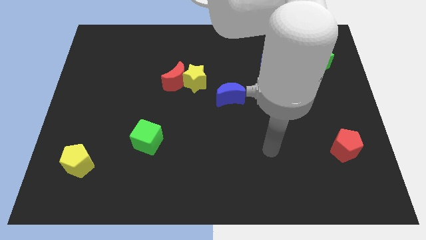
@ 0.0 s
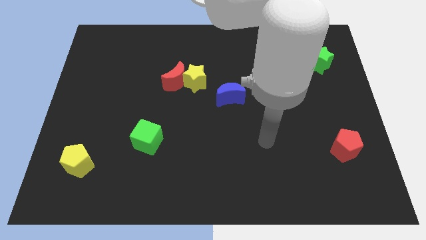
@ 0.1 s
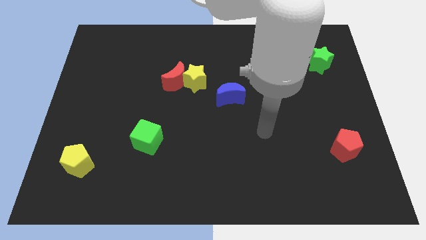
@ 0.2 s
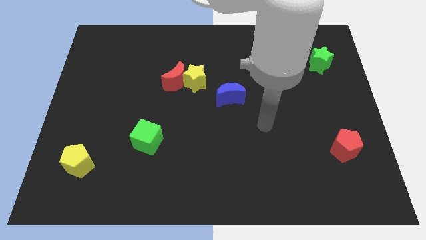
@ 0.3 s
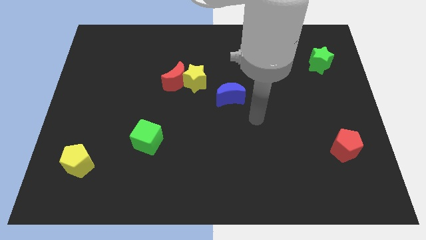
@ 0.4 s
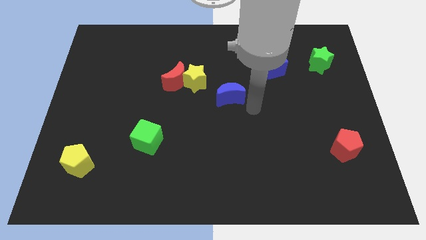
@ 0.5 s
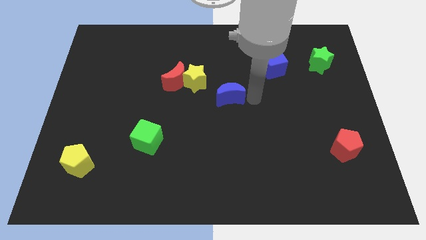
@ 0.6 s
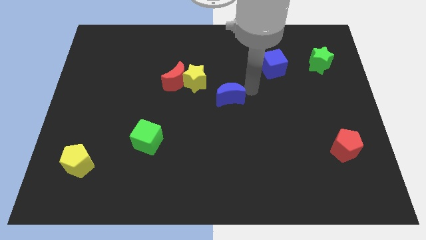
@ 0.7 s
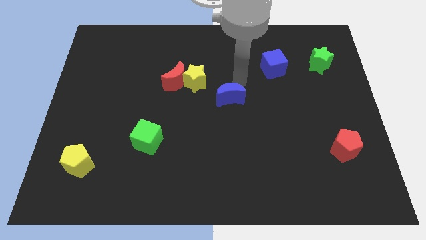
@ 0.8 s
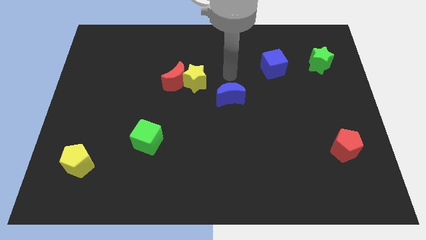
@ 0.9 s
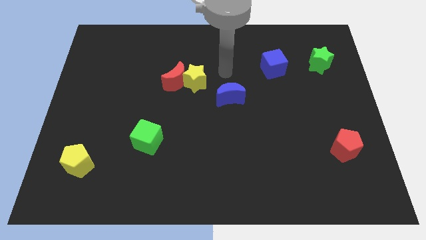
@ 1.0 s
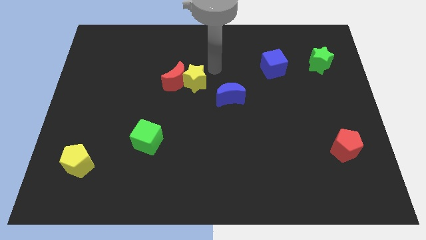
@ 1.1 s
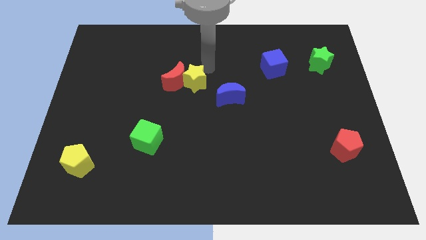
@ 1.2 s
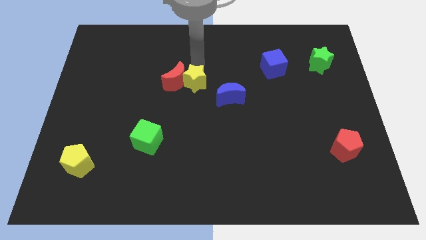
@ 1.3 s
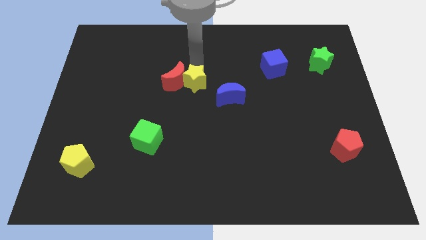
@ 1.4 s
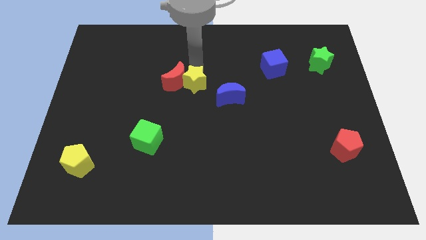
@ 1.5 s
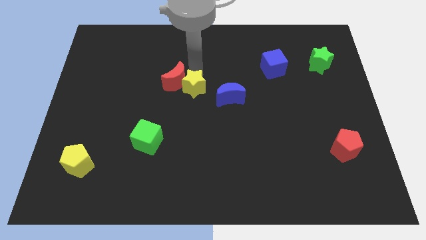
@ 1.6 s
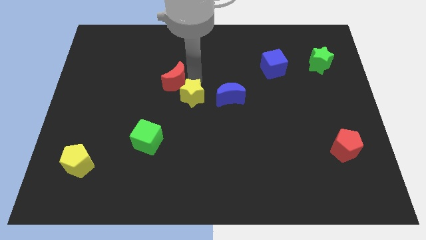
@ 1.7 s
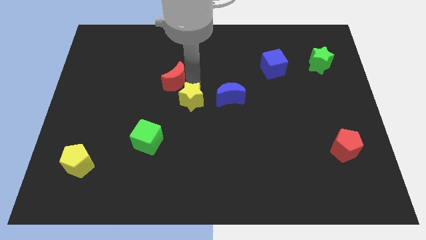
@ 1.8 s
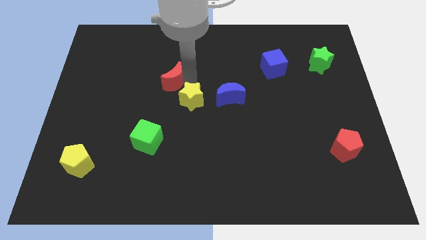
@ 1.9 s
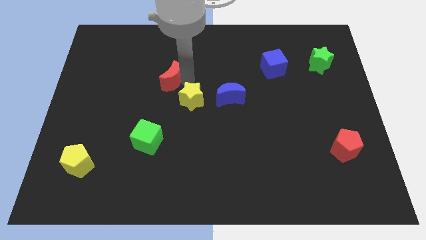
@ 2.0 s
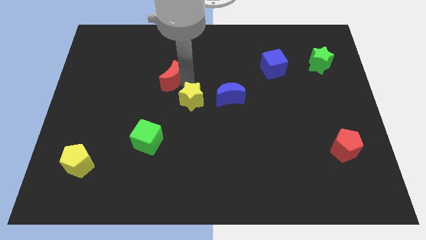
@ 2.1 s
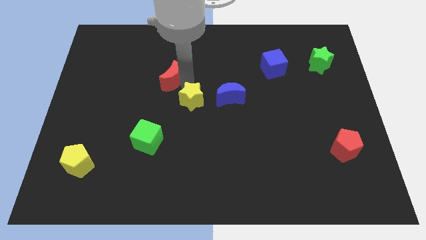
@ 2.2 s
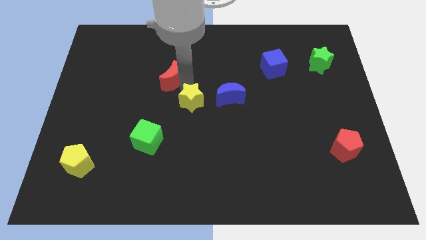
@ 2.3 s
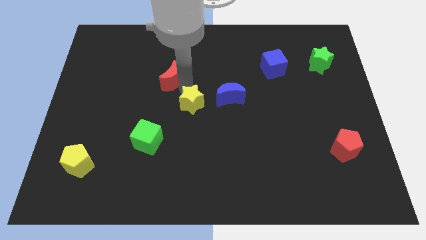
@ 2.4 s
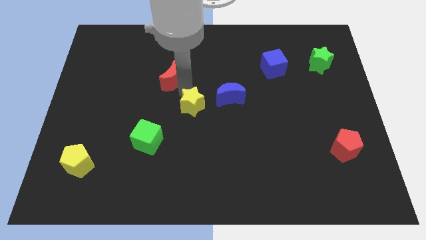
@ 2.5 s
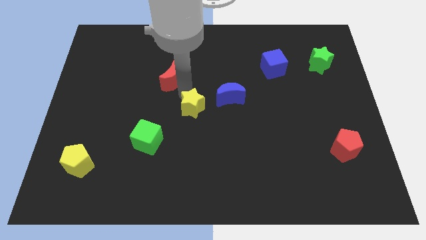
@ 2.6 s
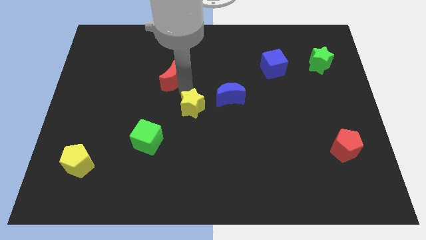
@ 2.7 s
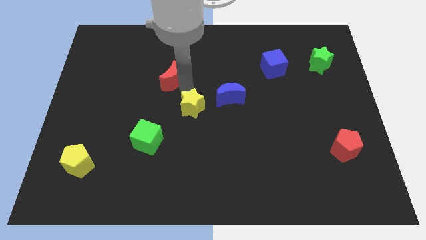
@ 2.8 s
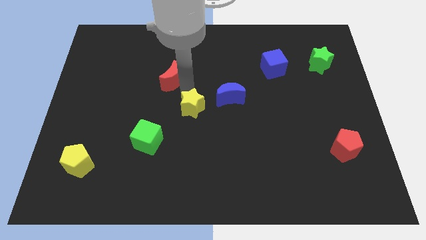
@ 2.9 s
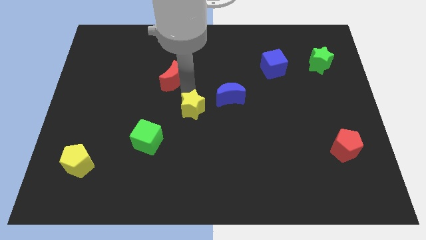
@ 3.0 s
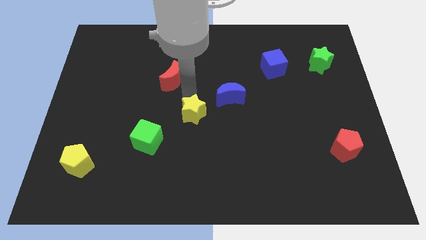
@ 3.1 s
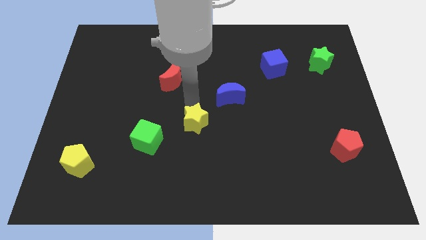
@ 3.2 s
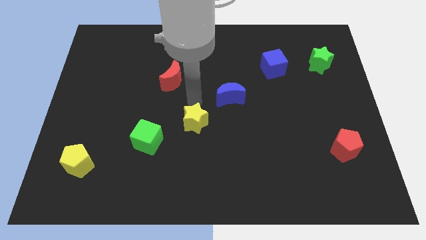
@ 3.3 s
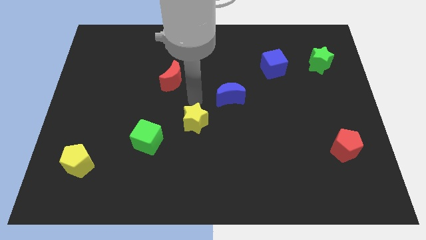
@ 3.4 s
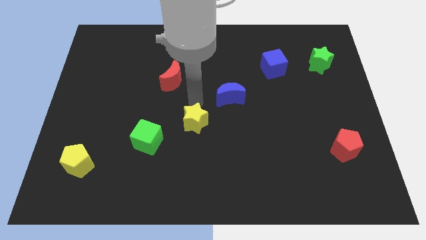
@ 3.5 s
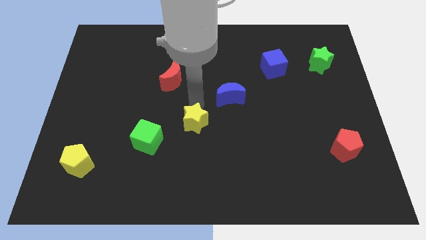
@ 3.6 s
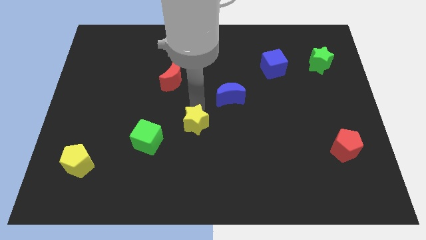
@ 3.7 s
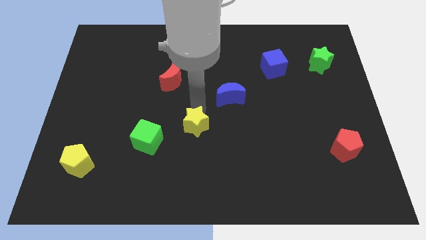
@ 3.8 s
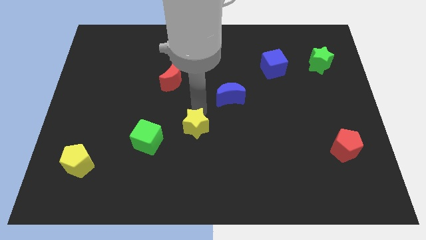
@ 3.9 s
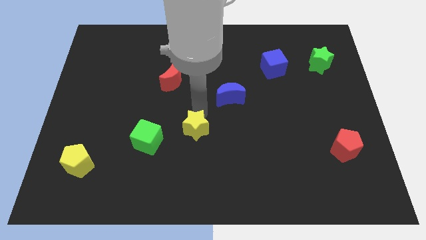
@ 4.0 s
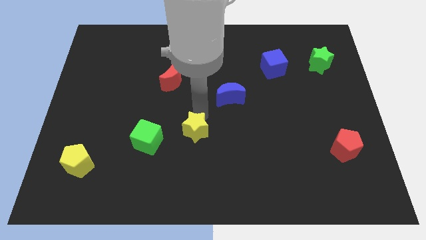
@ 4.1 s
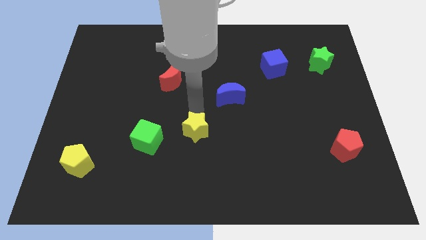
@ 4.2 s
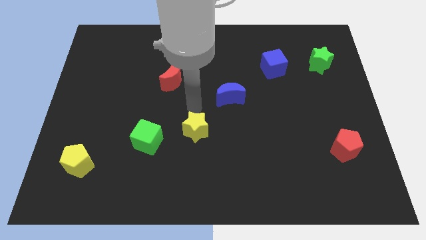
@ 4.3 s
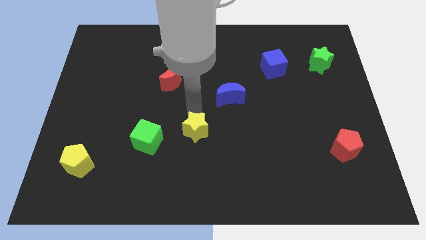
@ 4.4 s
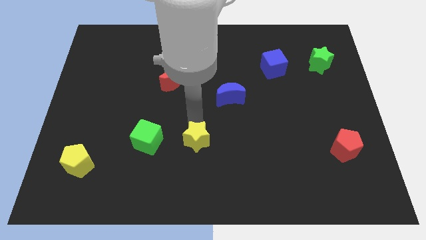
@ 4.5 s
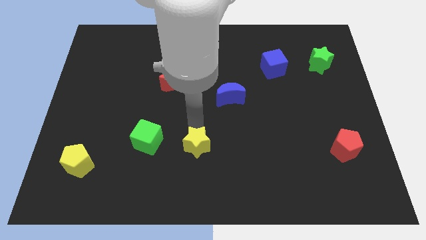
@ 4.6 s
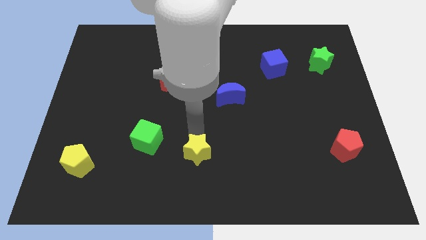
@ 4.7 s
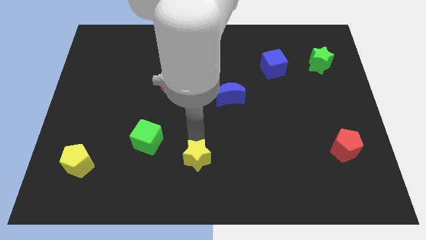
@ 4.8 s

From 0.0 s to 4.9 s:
push the yellow star to the bottom side

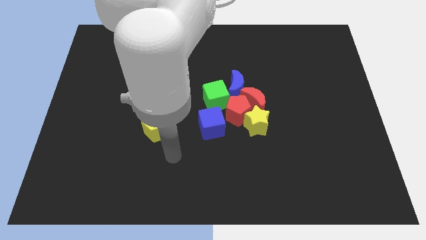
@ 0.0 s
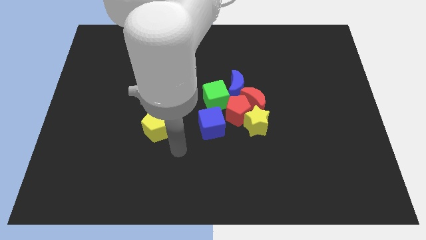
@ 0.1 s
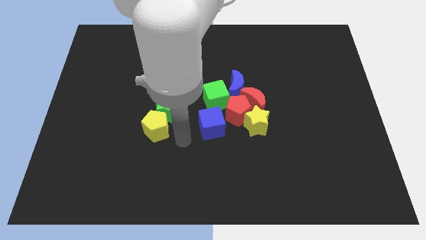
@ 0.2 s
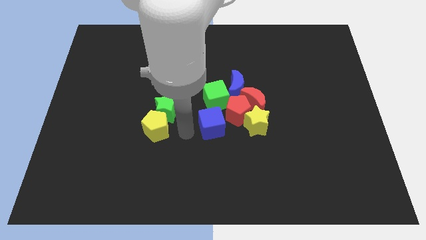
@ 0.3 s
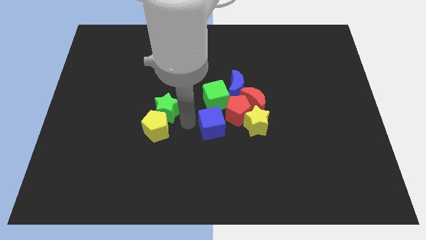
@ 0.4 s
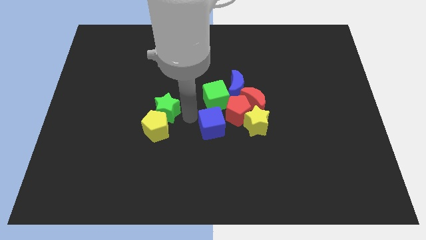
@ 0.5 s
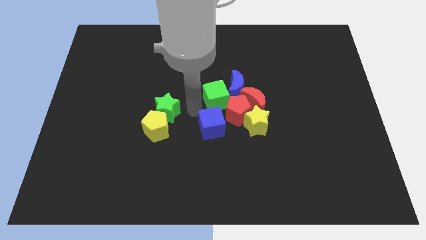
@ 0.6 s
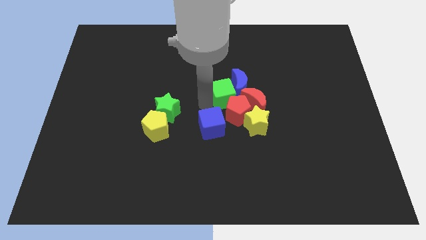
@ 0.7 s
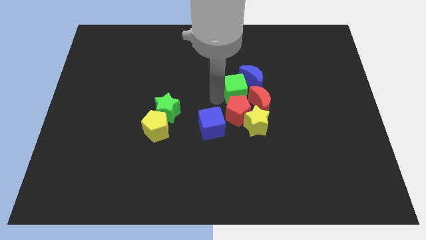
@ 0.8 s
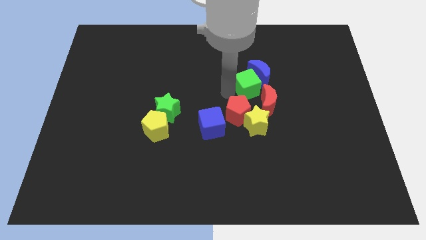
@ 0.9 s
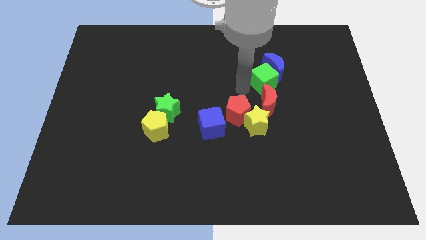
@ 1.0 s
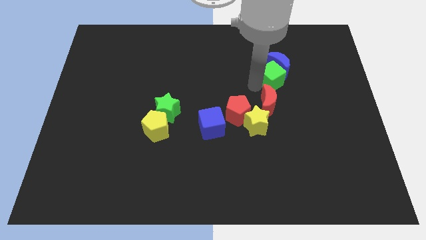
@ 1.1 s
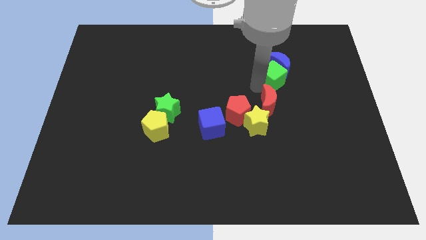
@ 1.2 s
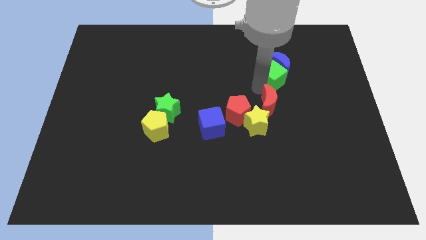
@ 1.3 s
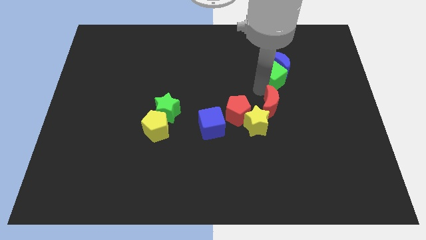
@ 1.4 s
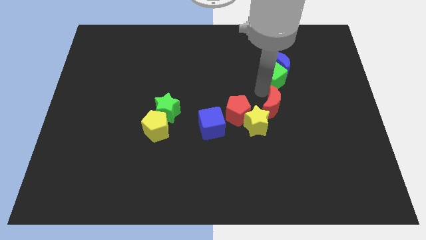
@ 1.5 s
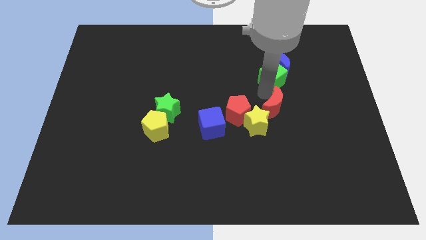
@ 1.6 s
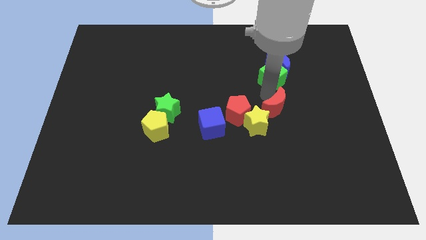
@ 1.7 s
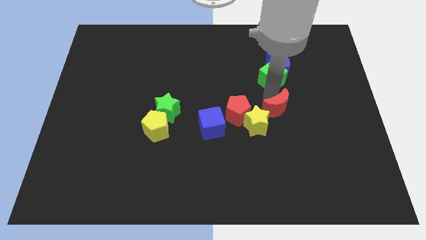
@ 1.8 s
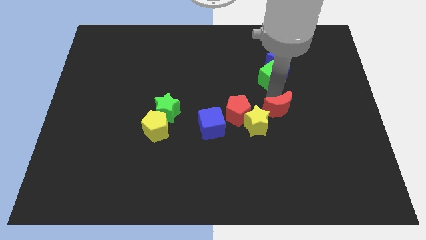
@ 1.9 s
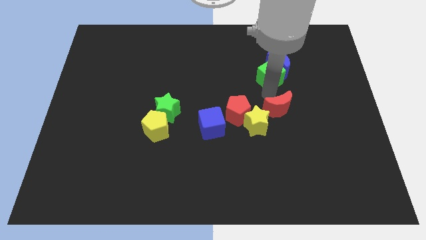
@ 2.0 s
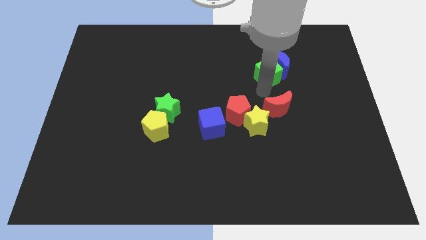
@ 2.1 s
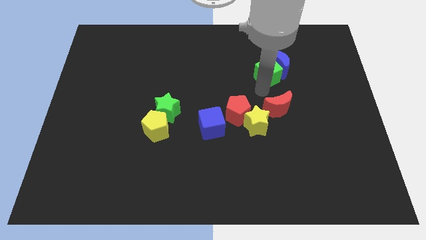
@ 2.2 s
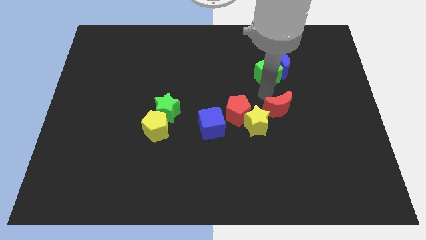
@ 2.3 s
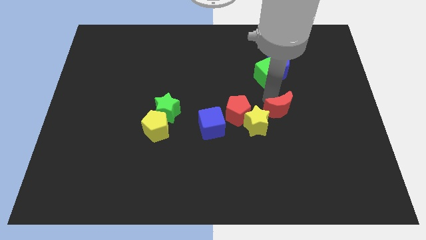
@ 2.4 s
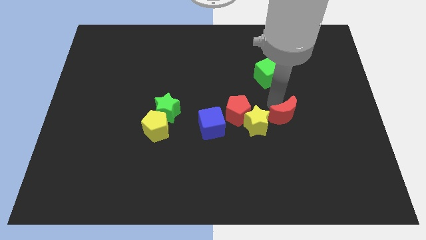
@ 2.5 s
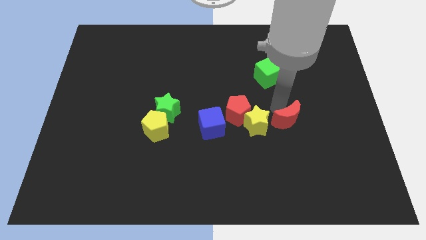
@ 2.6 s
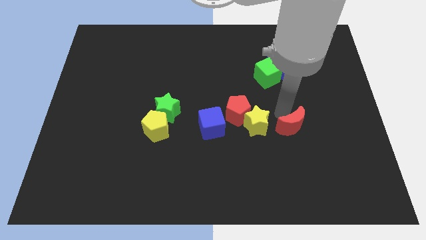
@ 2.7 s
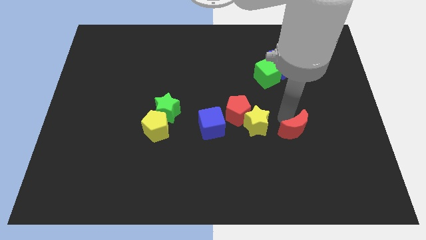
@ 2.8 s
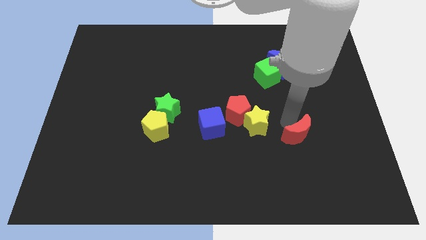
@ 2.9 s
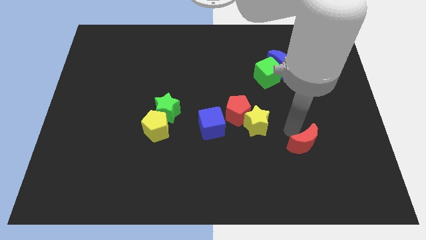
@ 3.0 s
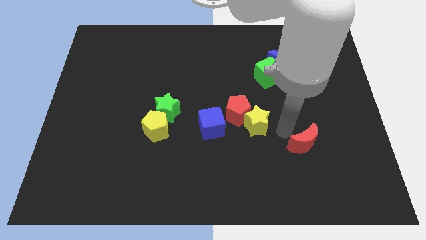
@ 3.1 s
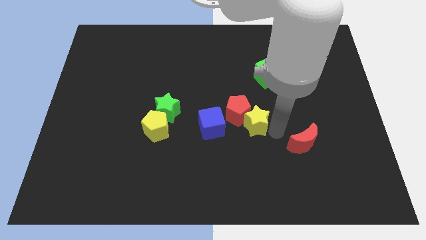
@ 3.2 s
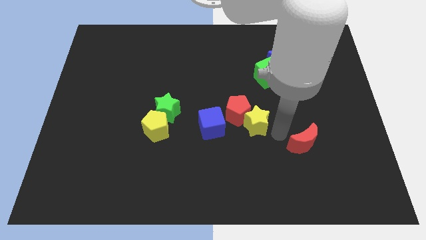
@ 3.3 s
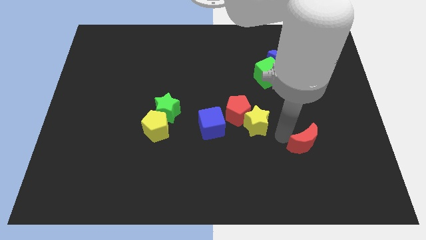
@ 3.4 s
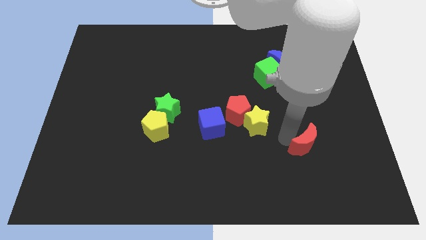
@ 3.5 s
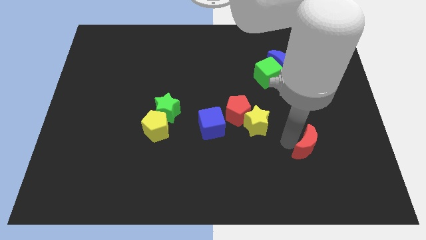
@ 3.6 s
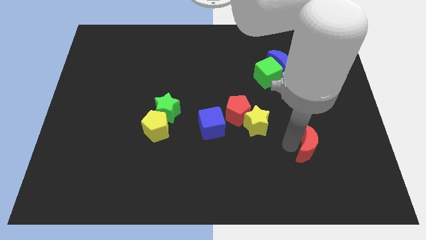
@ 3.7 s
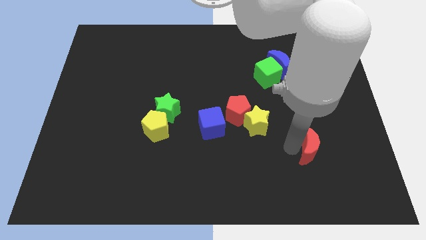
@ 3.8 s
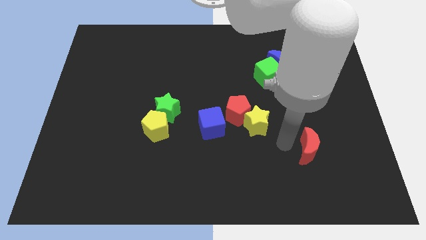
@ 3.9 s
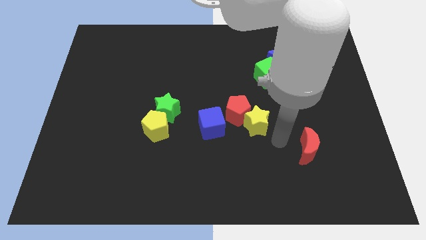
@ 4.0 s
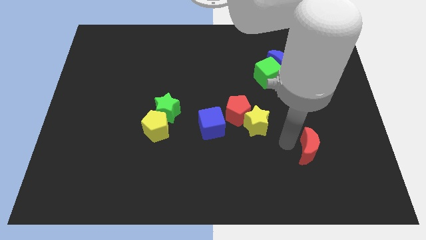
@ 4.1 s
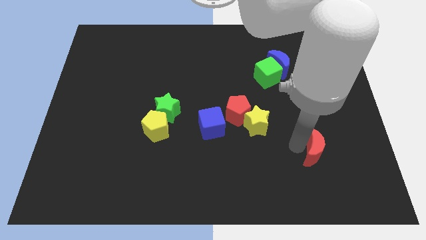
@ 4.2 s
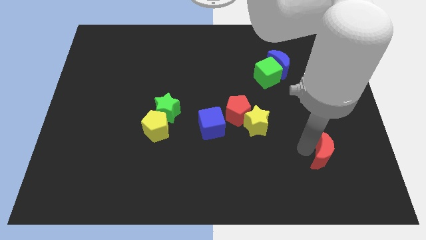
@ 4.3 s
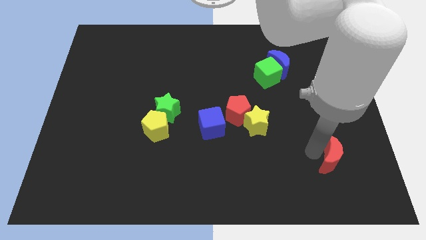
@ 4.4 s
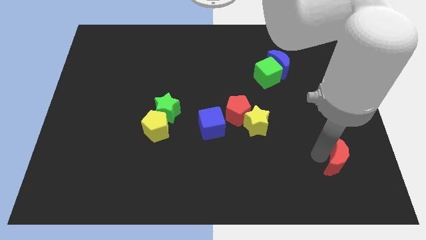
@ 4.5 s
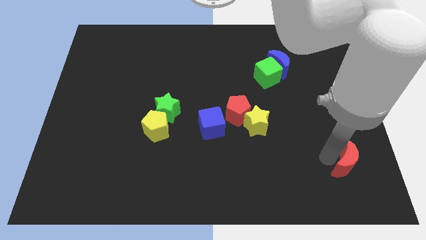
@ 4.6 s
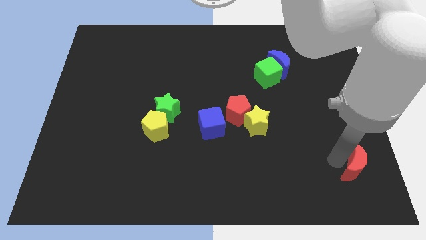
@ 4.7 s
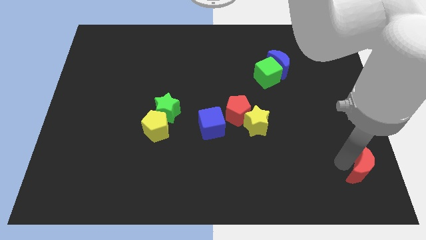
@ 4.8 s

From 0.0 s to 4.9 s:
slide the red moon to the lower right corner
